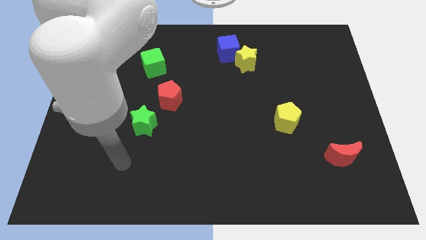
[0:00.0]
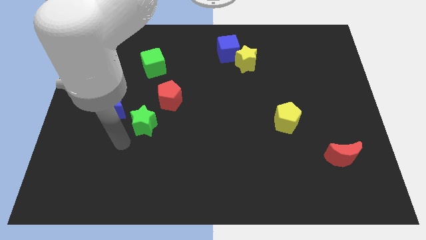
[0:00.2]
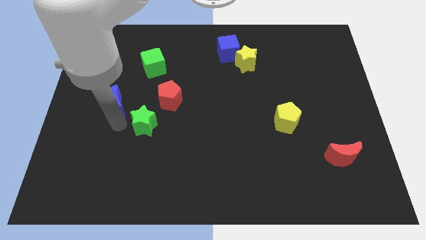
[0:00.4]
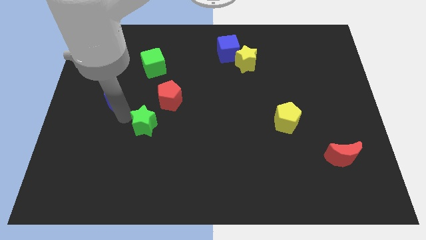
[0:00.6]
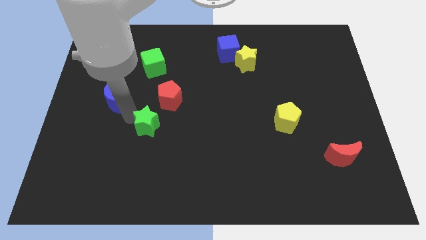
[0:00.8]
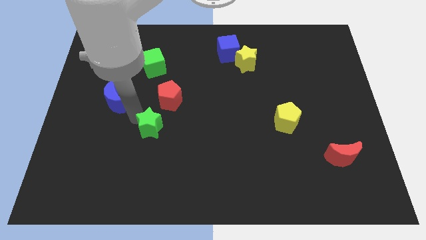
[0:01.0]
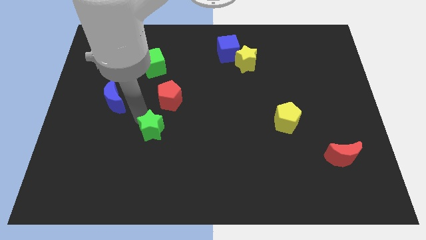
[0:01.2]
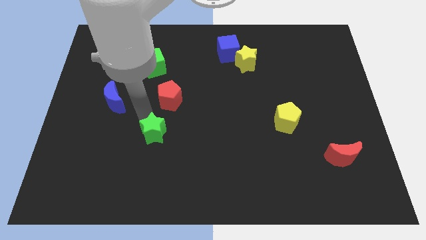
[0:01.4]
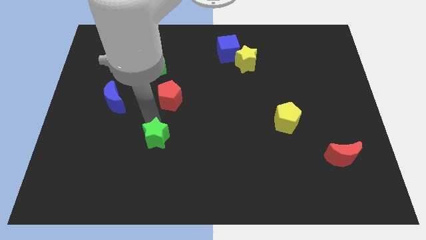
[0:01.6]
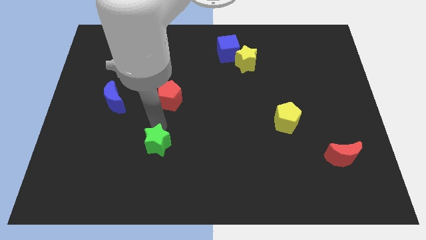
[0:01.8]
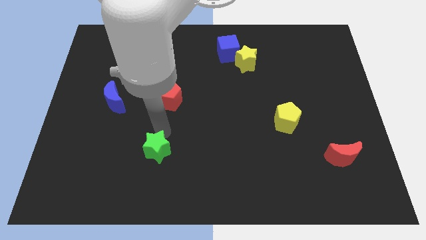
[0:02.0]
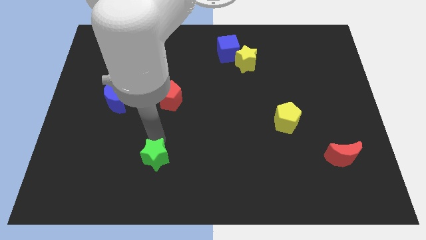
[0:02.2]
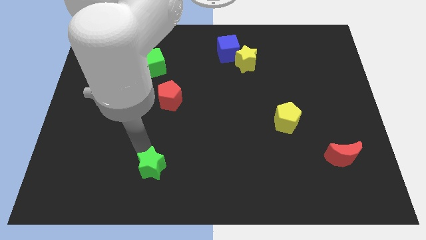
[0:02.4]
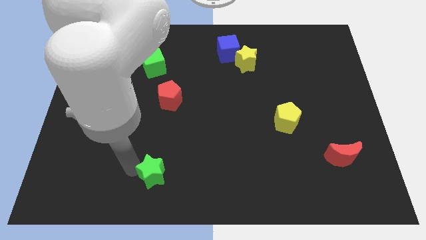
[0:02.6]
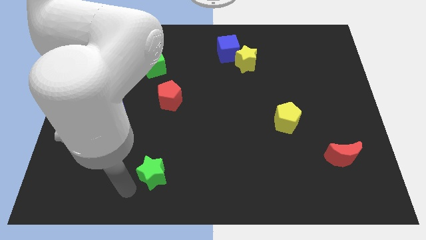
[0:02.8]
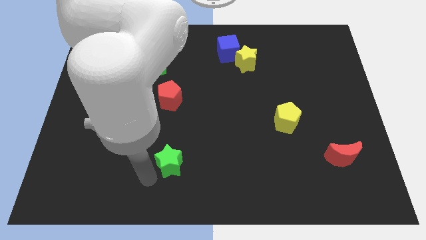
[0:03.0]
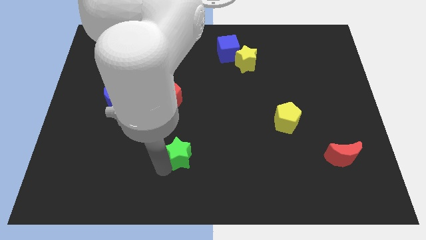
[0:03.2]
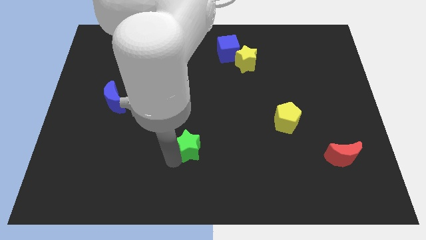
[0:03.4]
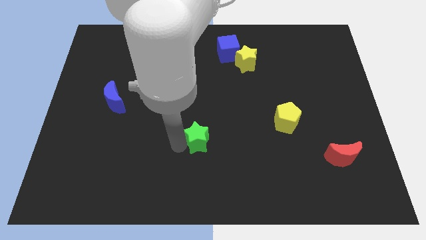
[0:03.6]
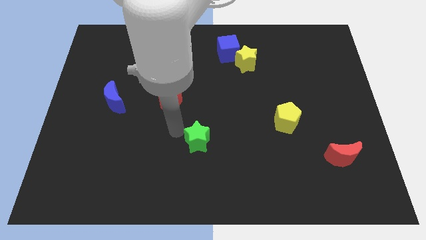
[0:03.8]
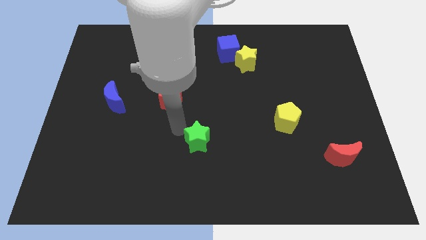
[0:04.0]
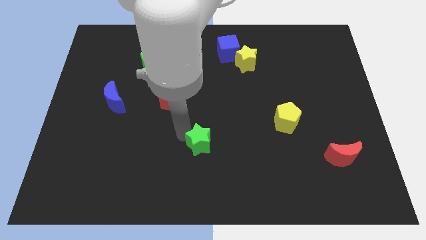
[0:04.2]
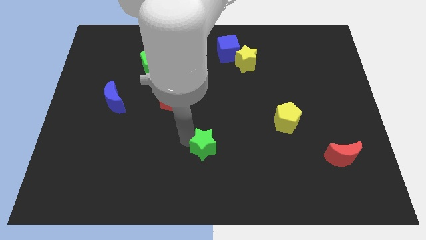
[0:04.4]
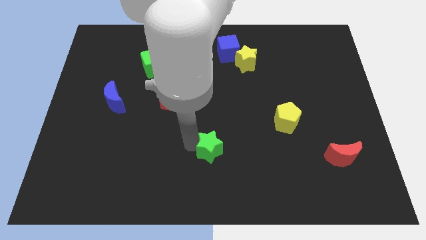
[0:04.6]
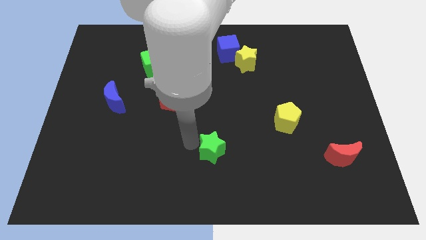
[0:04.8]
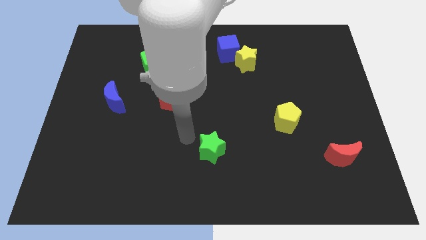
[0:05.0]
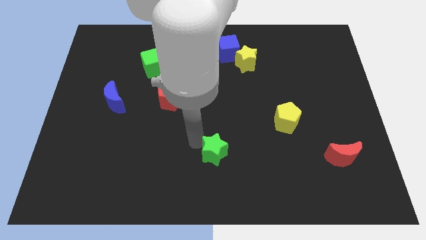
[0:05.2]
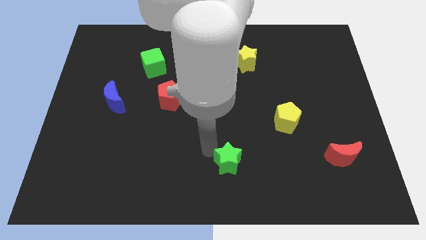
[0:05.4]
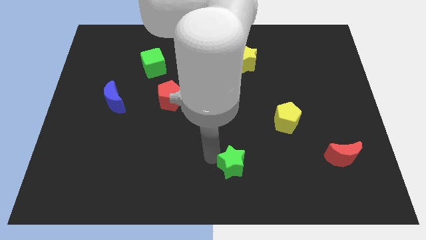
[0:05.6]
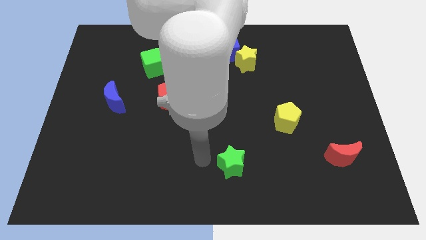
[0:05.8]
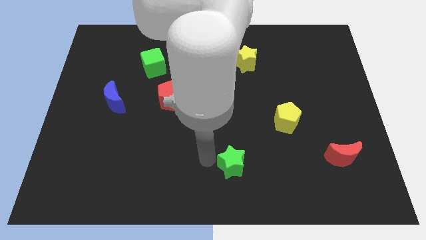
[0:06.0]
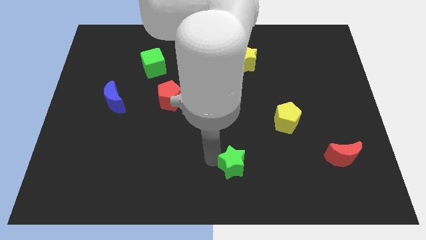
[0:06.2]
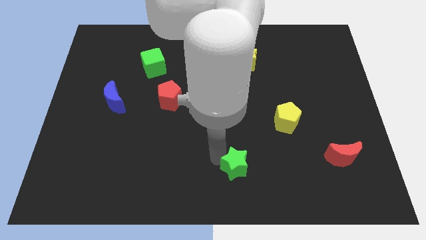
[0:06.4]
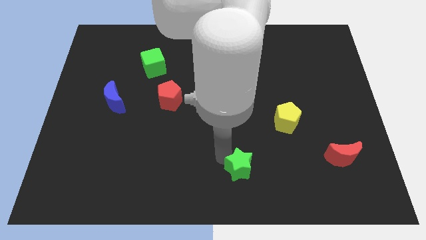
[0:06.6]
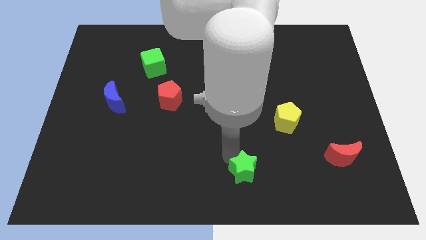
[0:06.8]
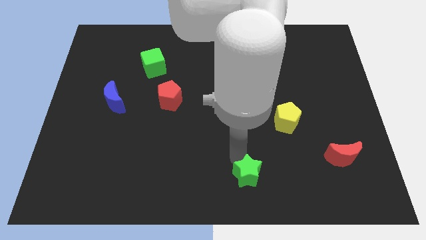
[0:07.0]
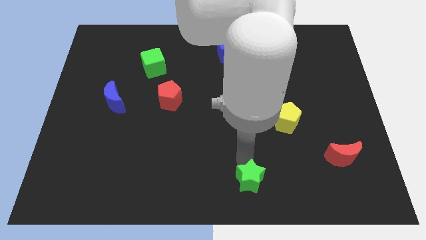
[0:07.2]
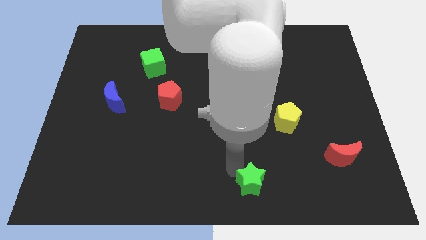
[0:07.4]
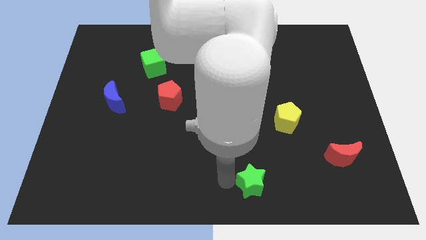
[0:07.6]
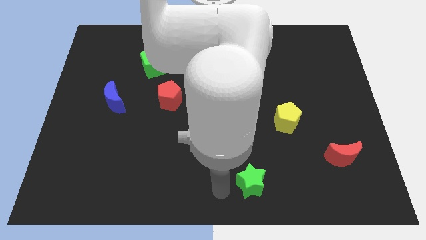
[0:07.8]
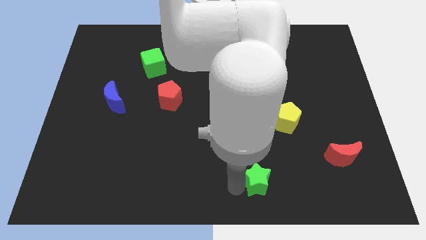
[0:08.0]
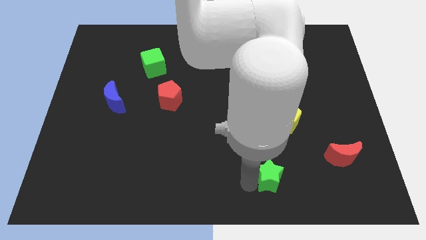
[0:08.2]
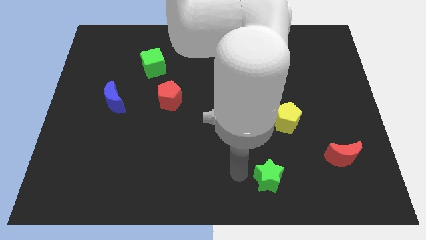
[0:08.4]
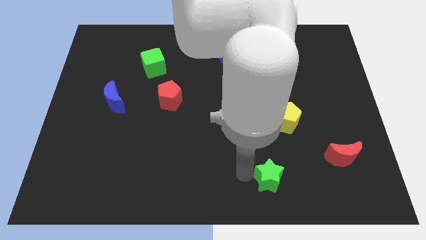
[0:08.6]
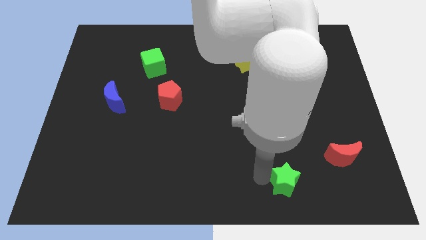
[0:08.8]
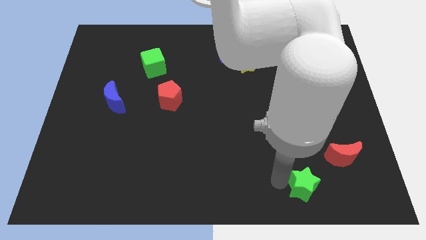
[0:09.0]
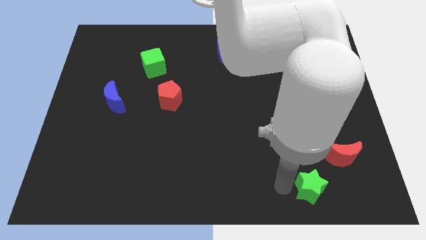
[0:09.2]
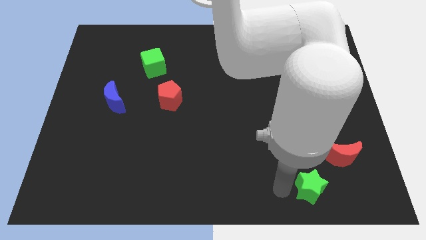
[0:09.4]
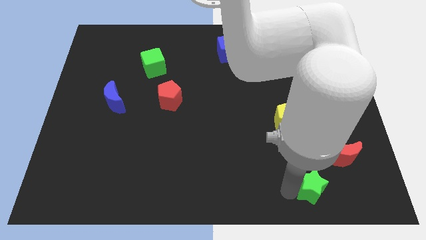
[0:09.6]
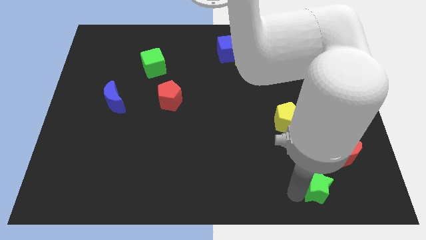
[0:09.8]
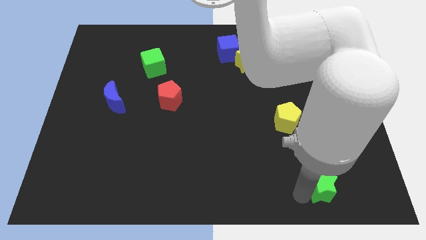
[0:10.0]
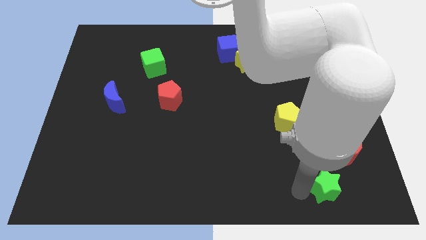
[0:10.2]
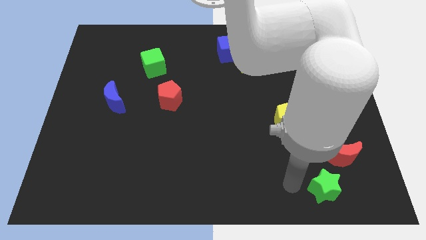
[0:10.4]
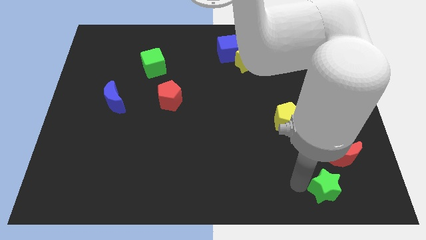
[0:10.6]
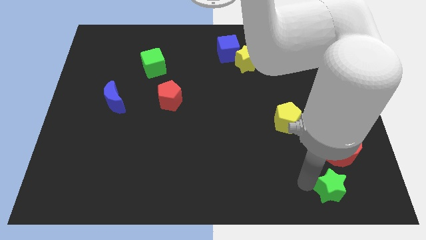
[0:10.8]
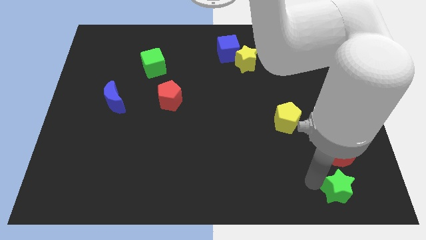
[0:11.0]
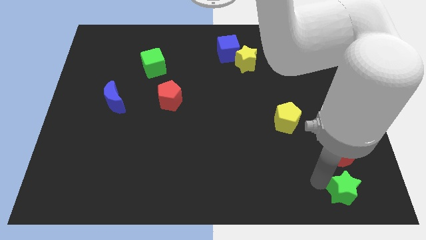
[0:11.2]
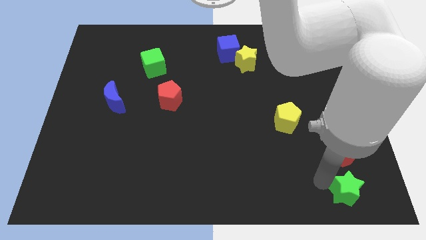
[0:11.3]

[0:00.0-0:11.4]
slide the green star to the lower right corner

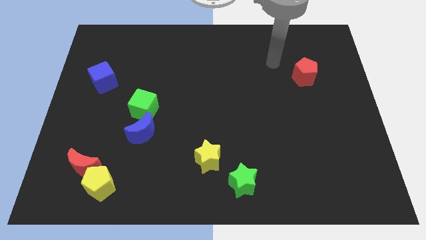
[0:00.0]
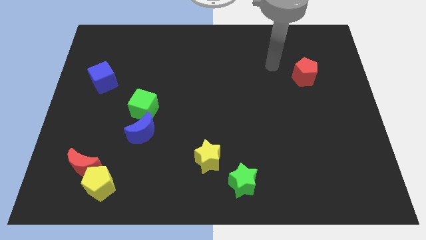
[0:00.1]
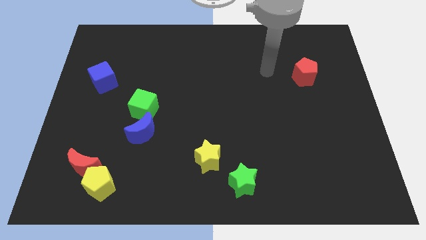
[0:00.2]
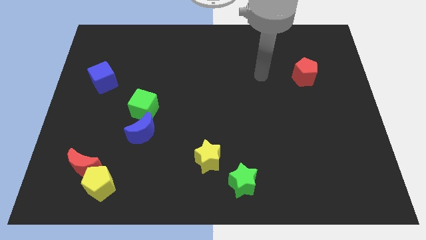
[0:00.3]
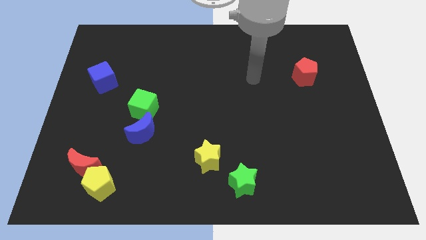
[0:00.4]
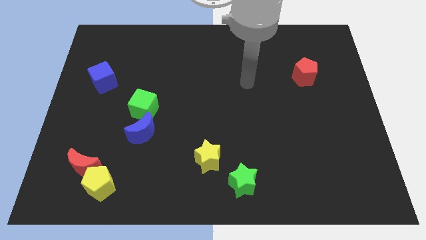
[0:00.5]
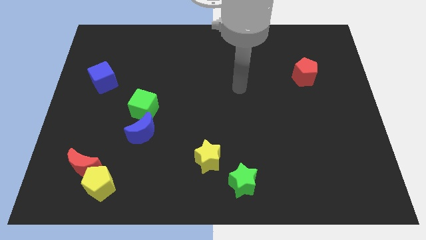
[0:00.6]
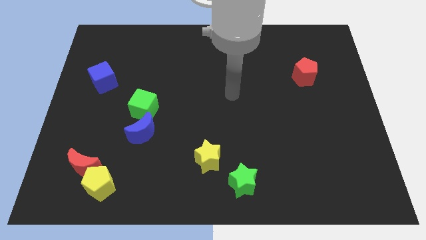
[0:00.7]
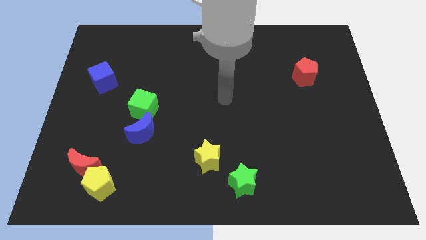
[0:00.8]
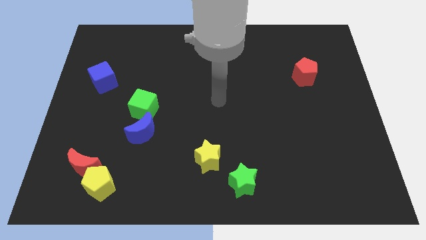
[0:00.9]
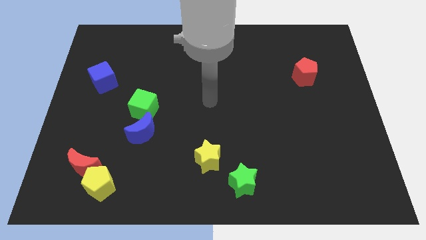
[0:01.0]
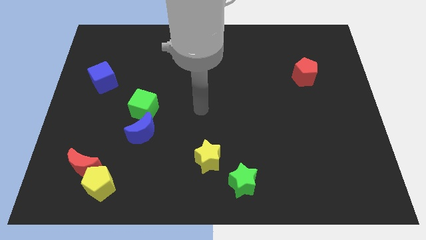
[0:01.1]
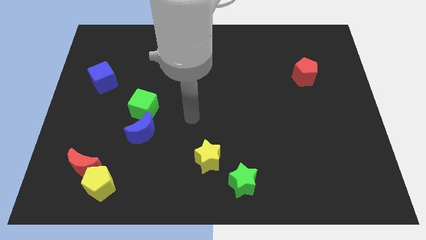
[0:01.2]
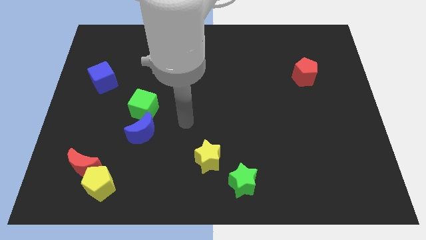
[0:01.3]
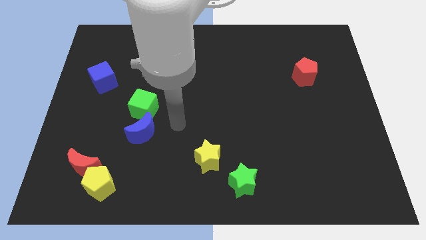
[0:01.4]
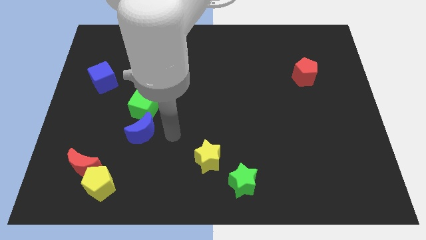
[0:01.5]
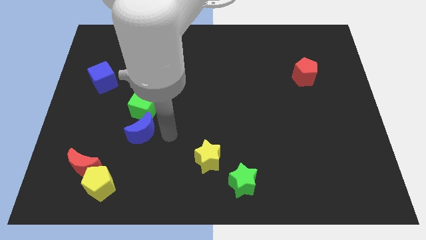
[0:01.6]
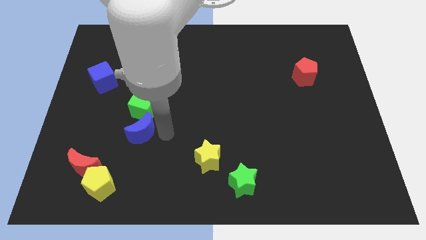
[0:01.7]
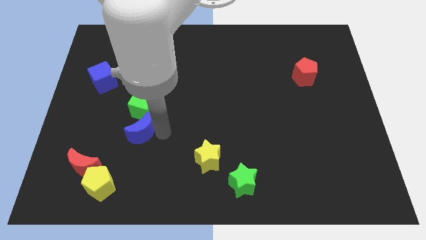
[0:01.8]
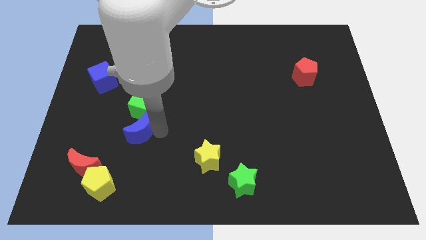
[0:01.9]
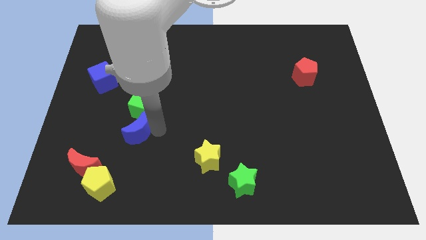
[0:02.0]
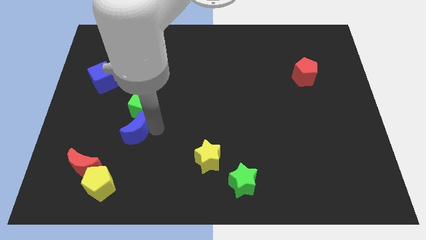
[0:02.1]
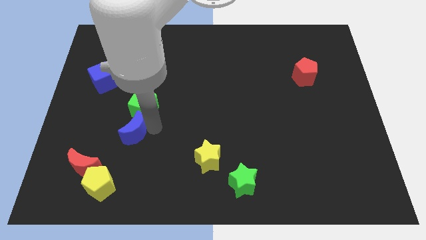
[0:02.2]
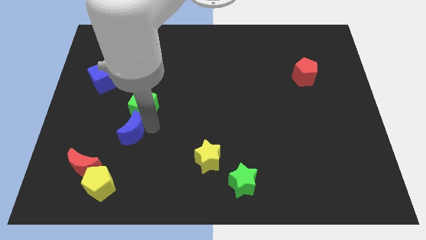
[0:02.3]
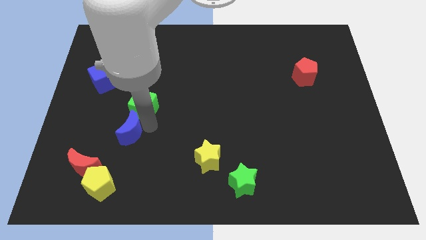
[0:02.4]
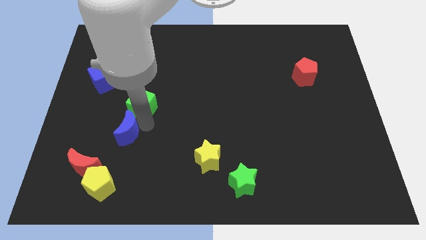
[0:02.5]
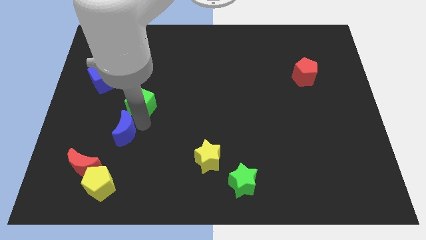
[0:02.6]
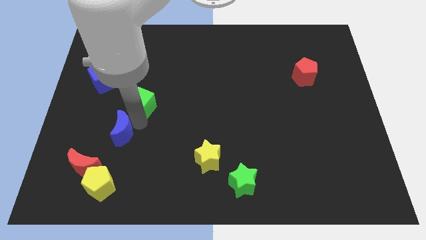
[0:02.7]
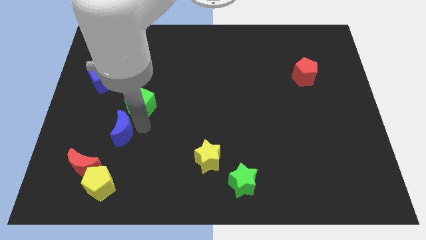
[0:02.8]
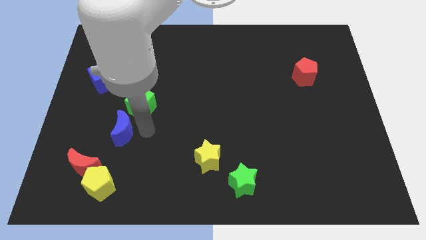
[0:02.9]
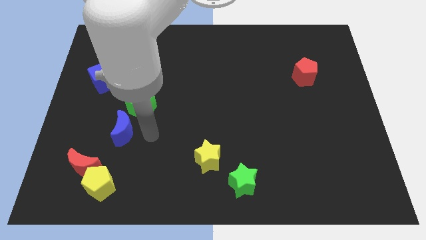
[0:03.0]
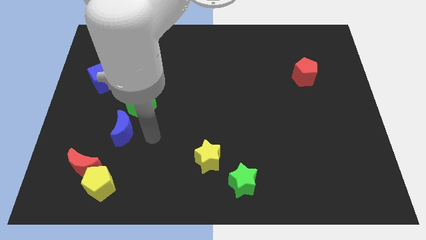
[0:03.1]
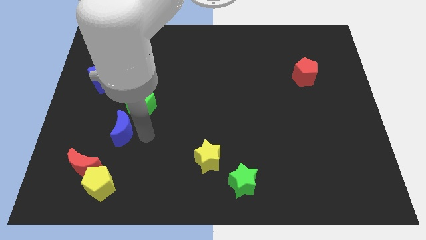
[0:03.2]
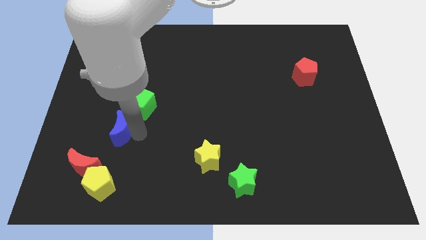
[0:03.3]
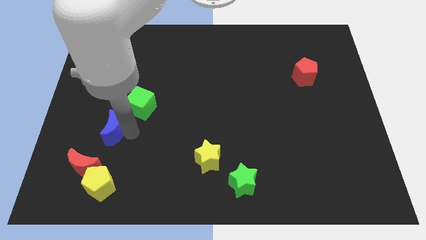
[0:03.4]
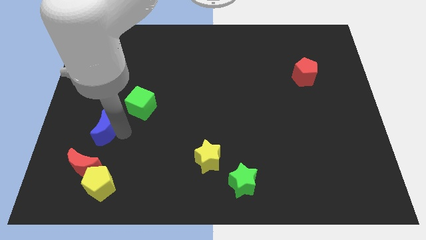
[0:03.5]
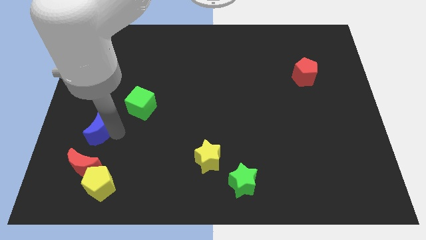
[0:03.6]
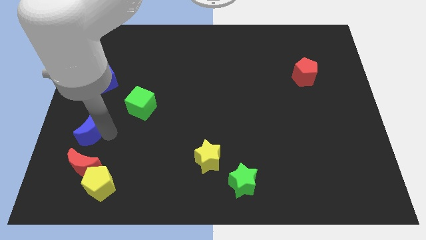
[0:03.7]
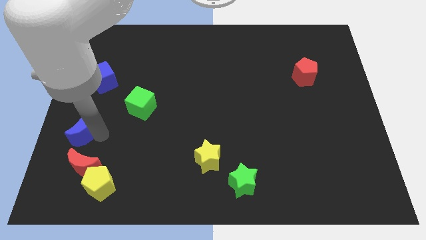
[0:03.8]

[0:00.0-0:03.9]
move the blue moon to the left side
